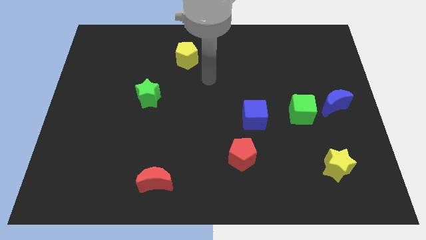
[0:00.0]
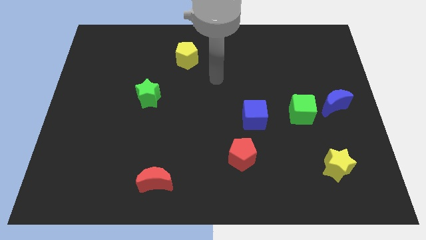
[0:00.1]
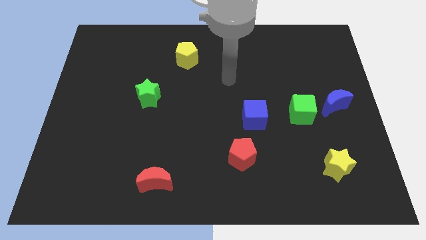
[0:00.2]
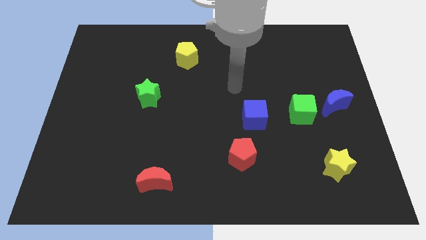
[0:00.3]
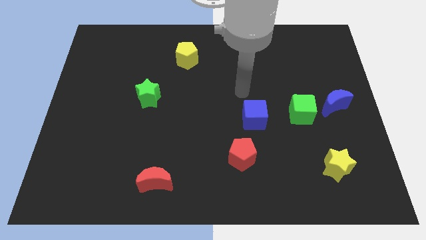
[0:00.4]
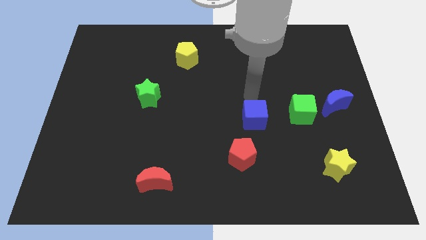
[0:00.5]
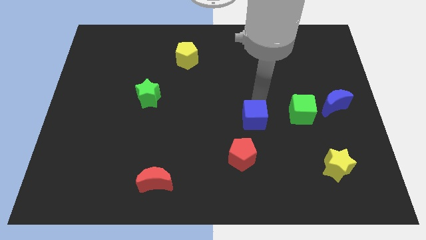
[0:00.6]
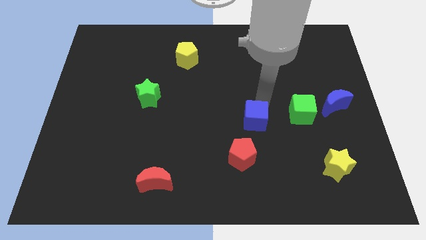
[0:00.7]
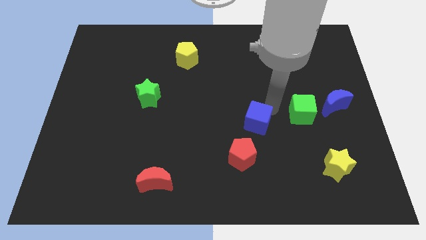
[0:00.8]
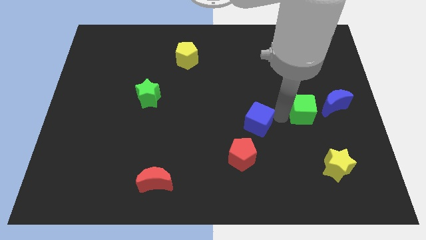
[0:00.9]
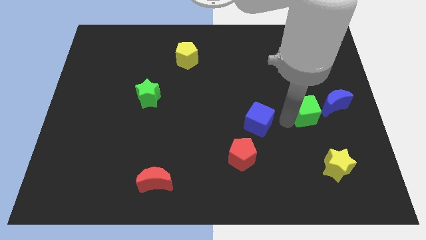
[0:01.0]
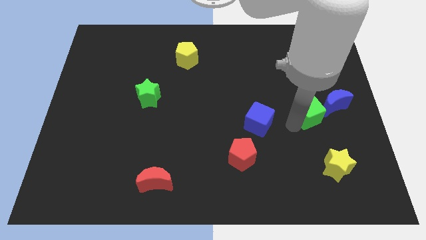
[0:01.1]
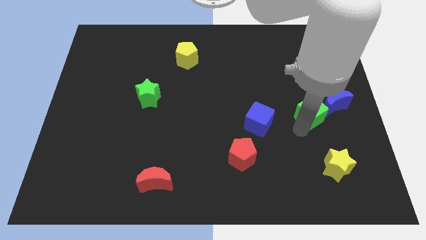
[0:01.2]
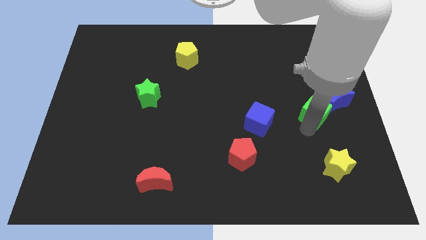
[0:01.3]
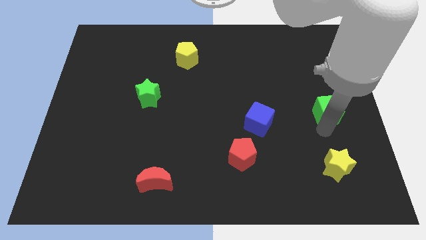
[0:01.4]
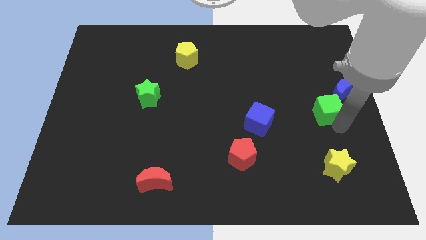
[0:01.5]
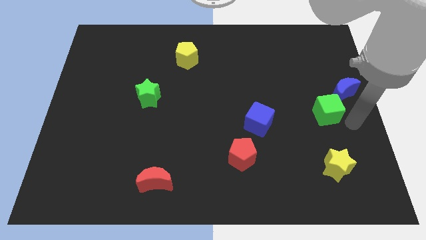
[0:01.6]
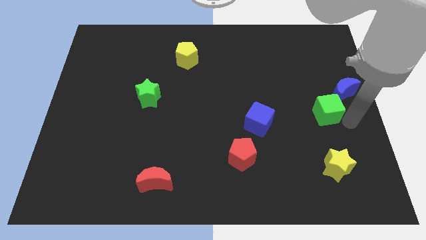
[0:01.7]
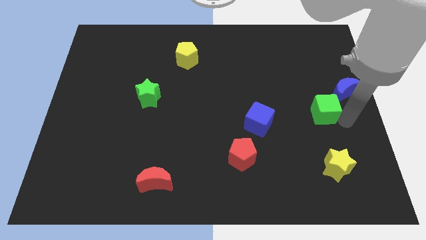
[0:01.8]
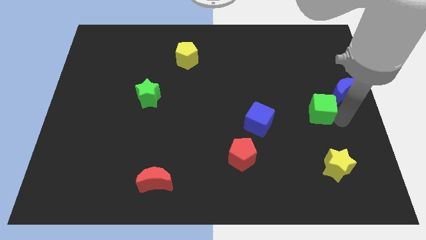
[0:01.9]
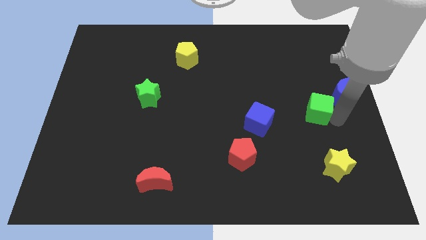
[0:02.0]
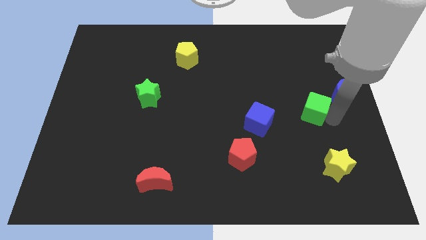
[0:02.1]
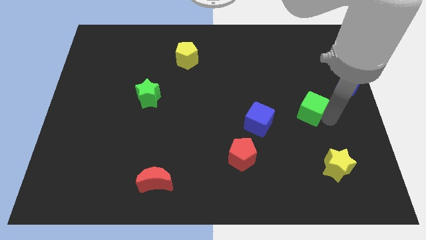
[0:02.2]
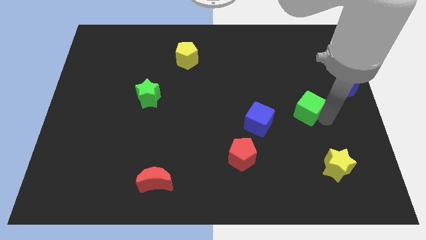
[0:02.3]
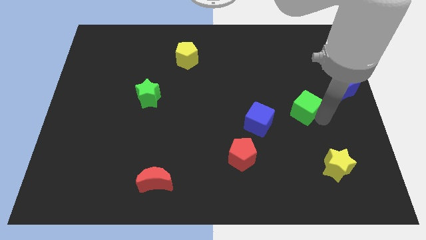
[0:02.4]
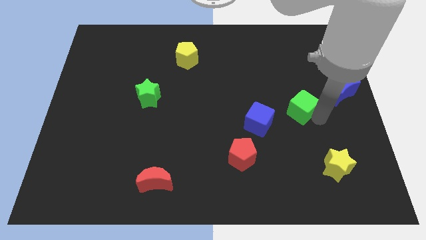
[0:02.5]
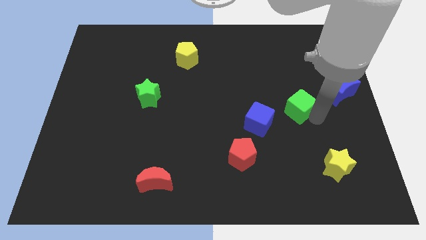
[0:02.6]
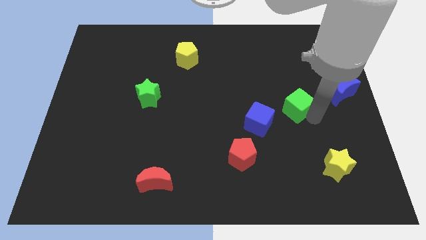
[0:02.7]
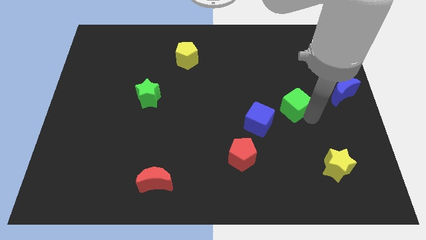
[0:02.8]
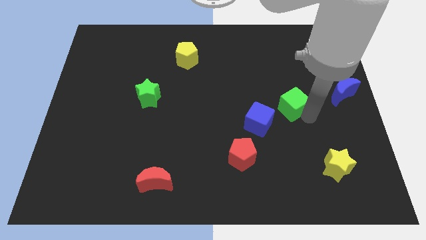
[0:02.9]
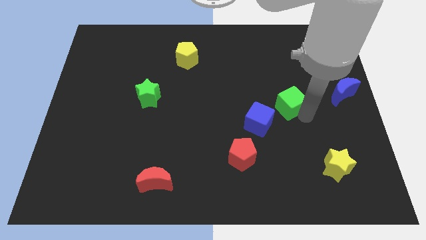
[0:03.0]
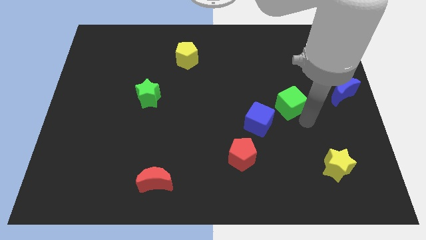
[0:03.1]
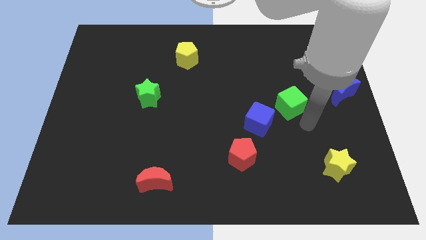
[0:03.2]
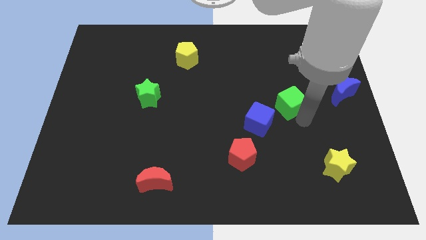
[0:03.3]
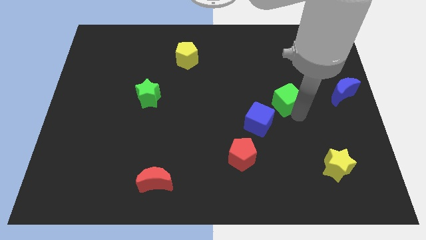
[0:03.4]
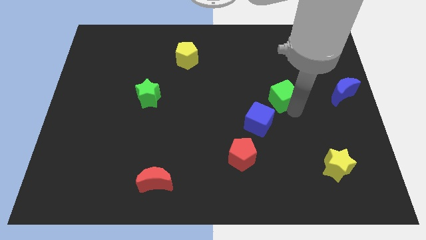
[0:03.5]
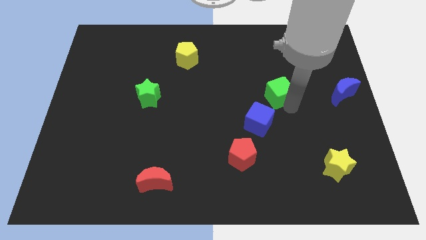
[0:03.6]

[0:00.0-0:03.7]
move the green cube up and left a little

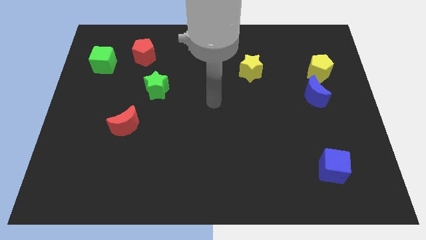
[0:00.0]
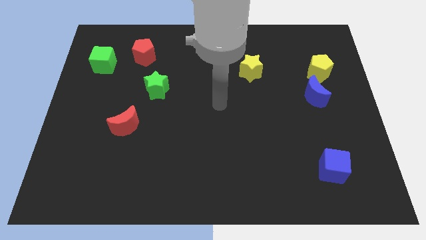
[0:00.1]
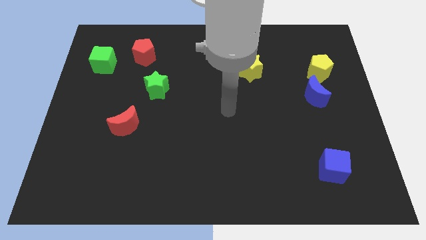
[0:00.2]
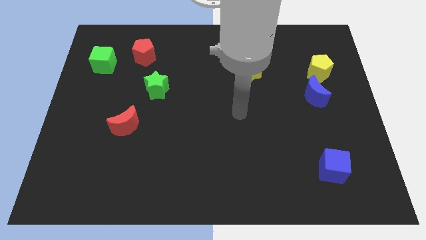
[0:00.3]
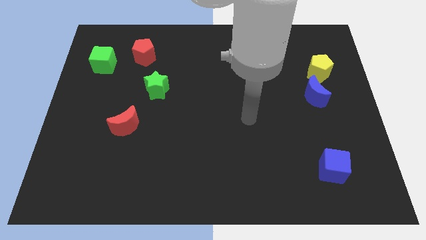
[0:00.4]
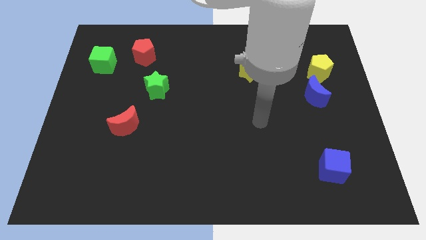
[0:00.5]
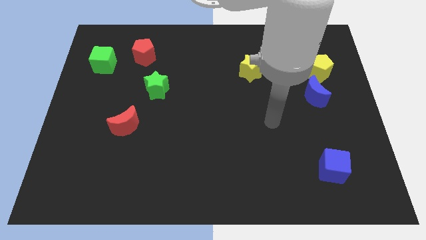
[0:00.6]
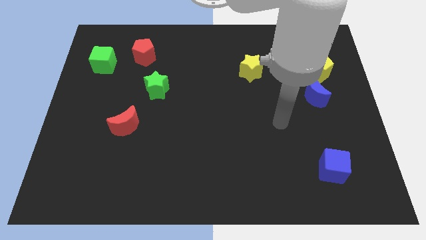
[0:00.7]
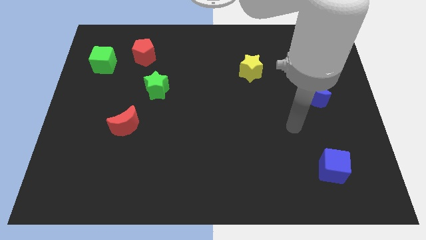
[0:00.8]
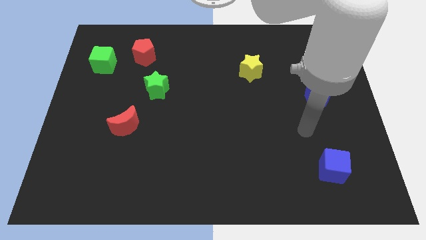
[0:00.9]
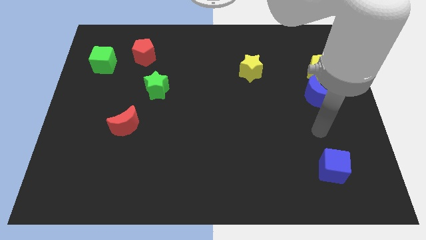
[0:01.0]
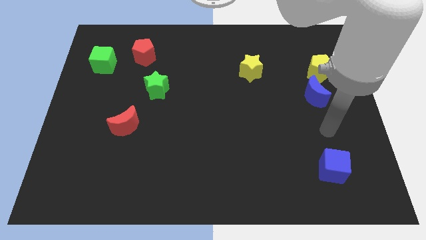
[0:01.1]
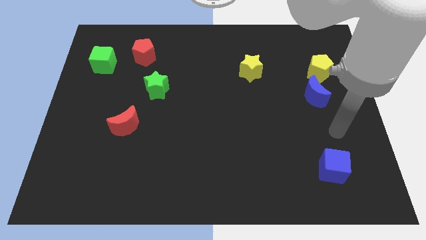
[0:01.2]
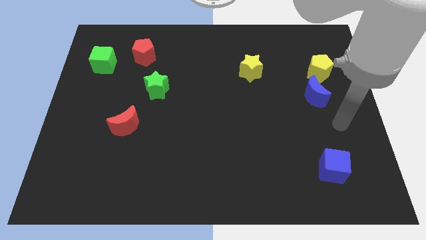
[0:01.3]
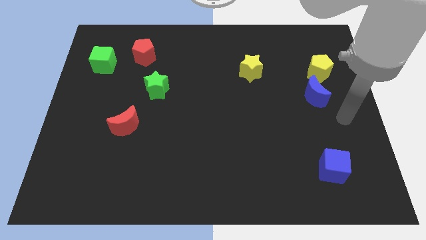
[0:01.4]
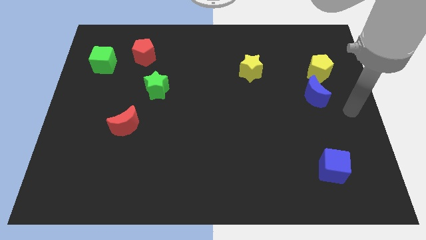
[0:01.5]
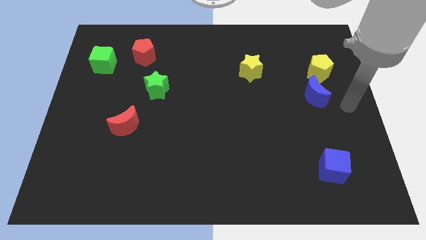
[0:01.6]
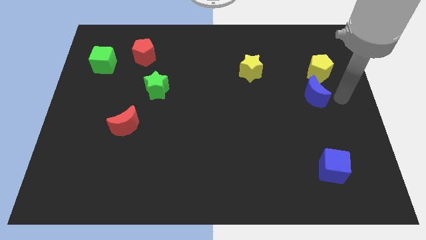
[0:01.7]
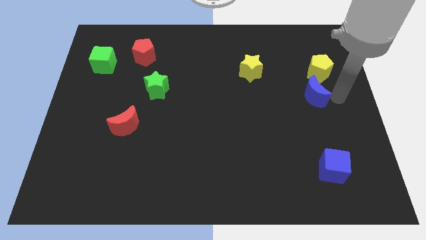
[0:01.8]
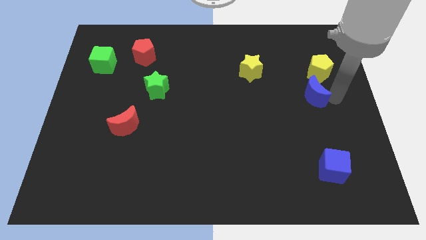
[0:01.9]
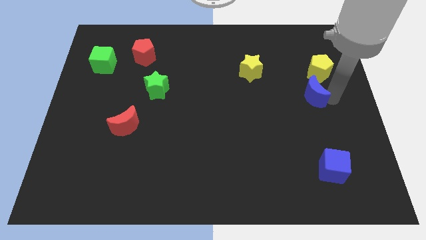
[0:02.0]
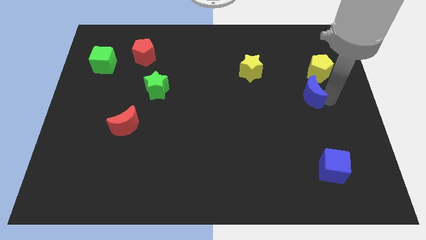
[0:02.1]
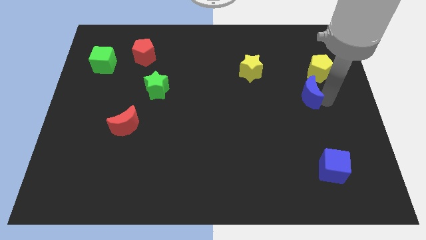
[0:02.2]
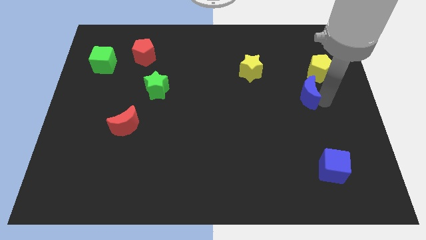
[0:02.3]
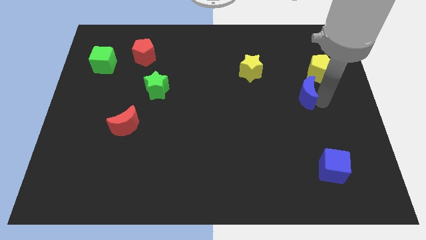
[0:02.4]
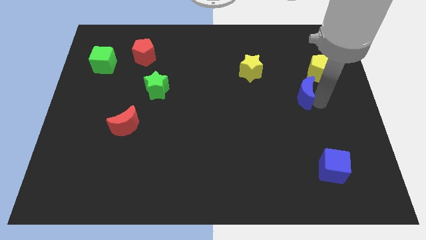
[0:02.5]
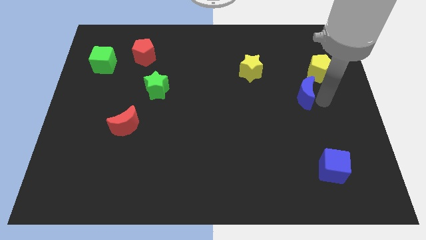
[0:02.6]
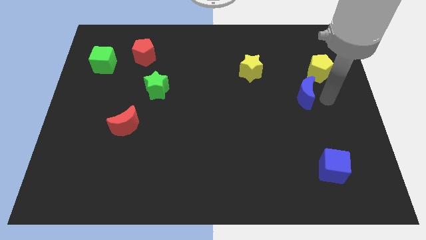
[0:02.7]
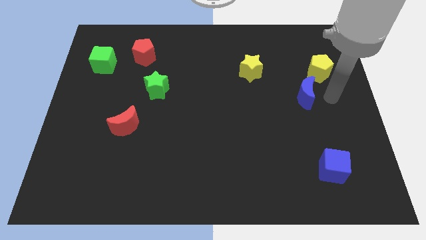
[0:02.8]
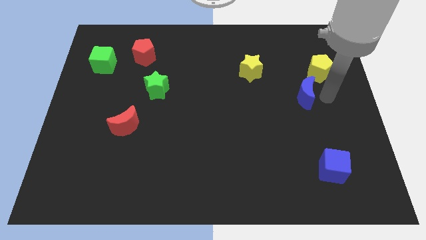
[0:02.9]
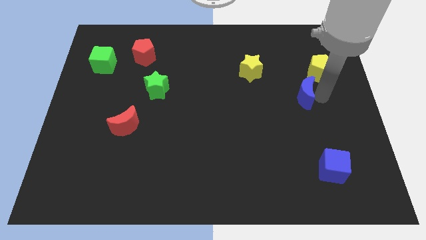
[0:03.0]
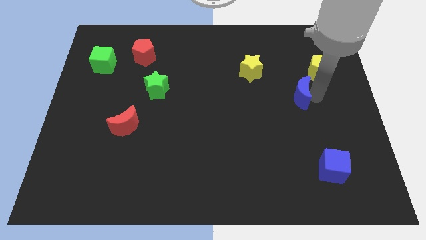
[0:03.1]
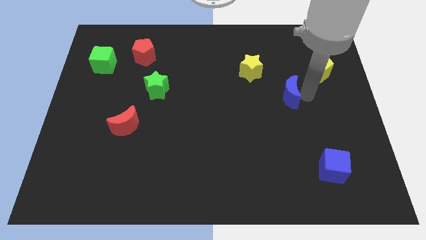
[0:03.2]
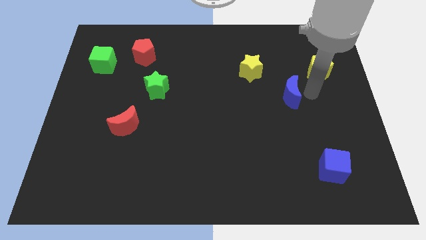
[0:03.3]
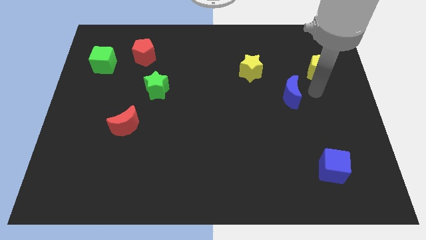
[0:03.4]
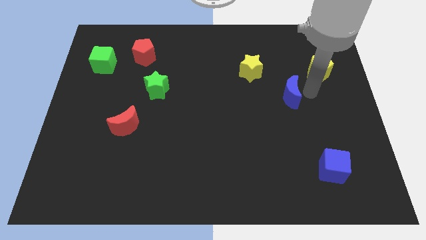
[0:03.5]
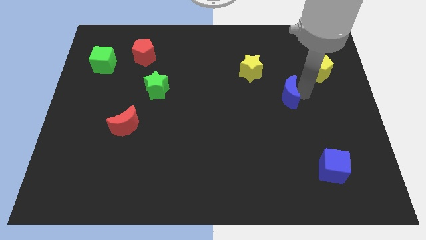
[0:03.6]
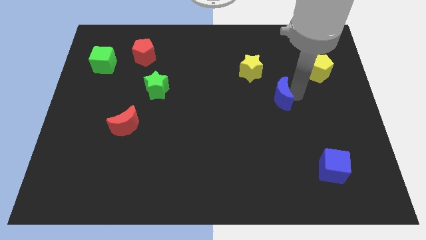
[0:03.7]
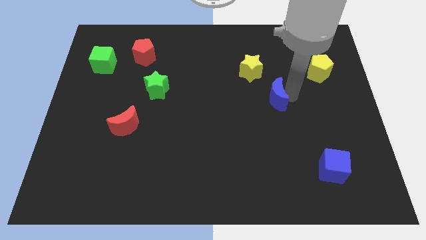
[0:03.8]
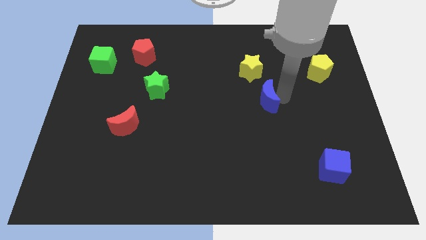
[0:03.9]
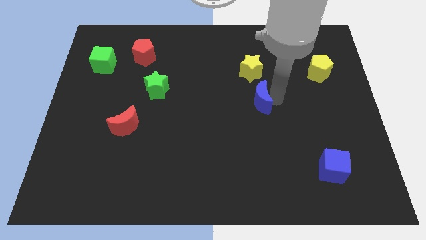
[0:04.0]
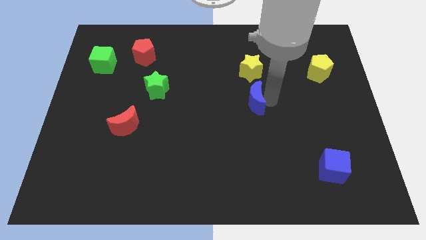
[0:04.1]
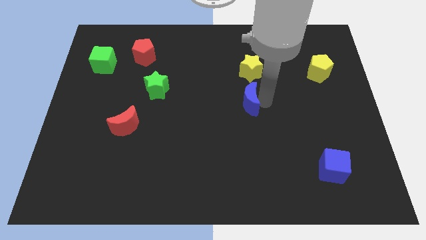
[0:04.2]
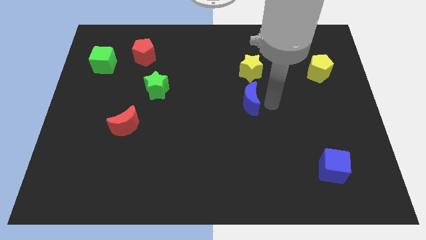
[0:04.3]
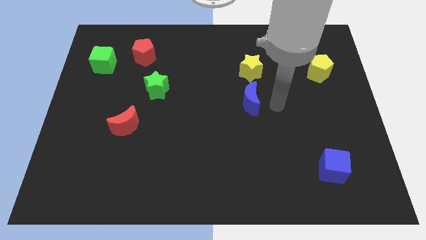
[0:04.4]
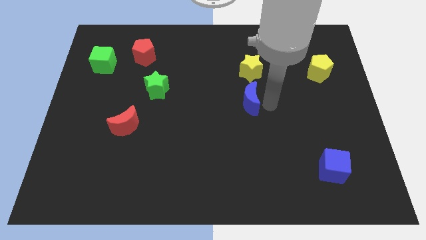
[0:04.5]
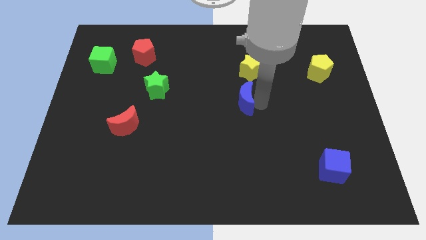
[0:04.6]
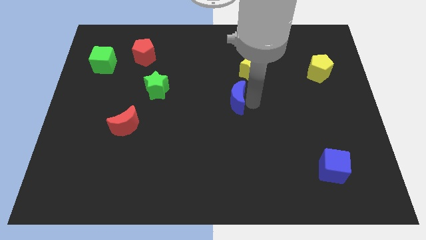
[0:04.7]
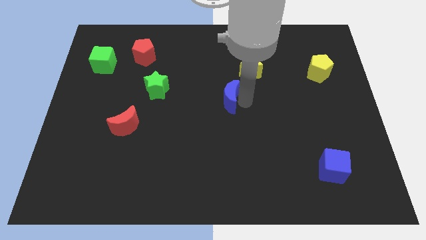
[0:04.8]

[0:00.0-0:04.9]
move the blue moon to the left
